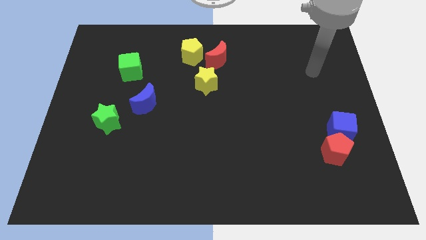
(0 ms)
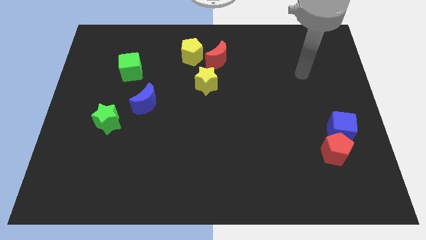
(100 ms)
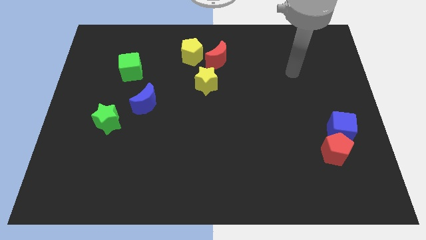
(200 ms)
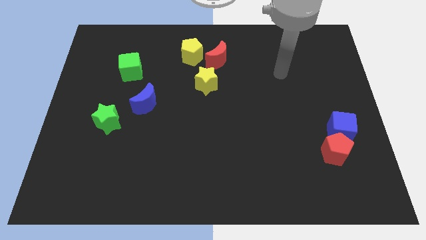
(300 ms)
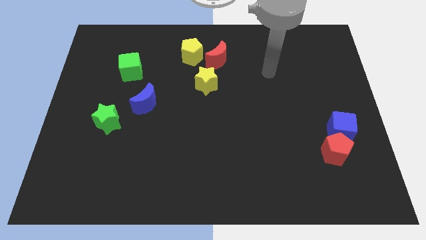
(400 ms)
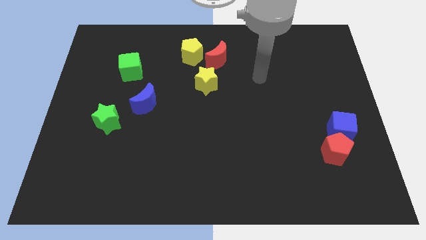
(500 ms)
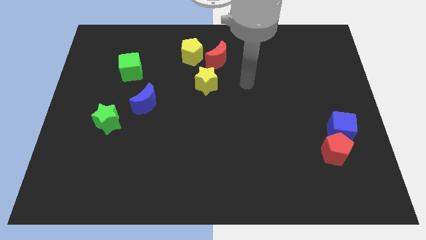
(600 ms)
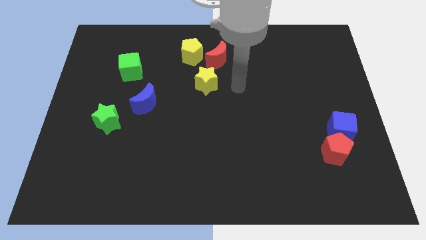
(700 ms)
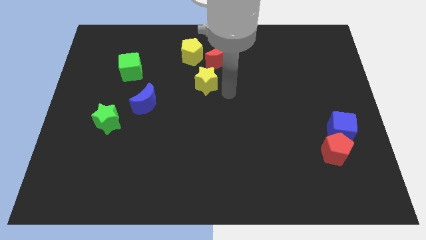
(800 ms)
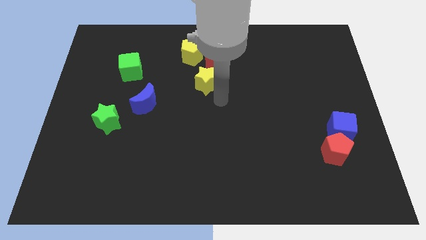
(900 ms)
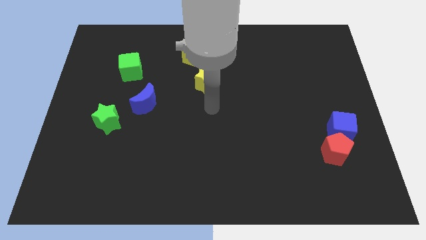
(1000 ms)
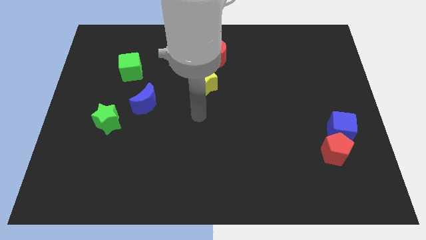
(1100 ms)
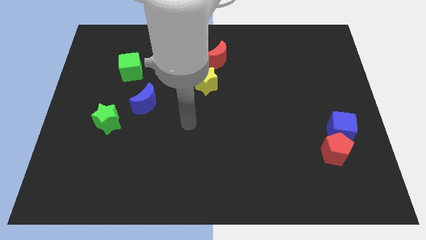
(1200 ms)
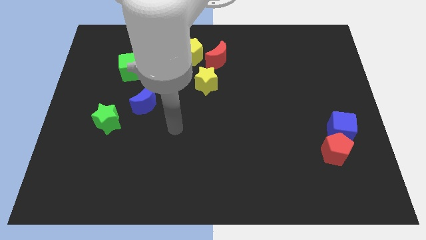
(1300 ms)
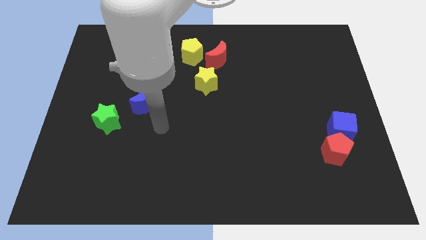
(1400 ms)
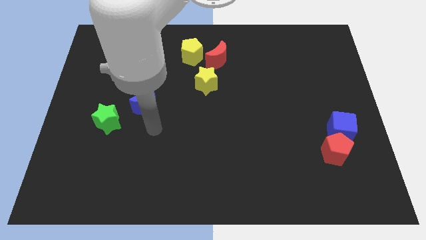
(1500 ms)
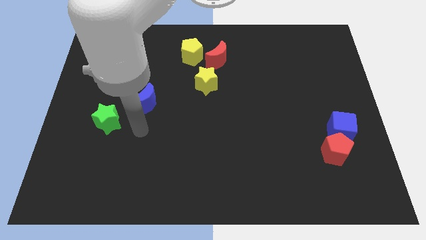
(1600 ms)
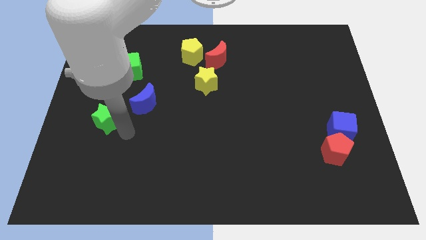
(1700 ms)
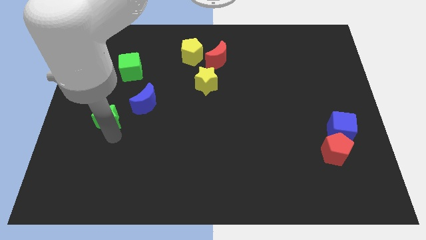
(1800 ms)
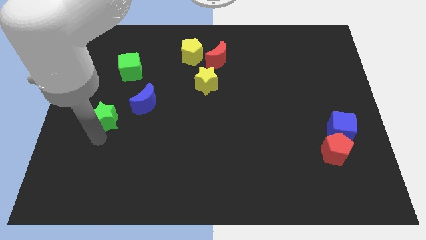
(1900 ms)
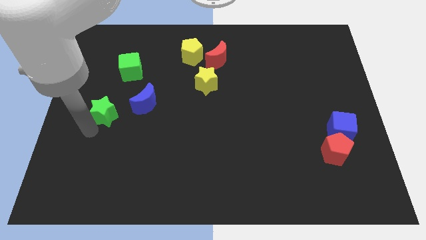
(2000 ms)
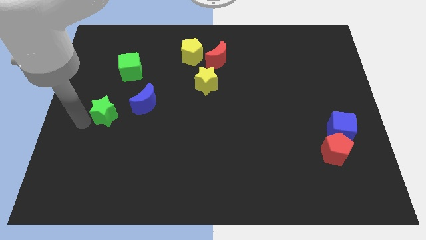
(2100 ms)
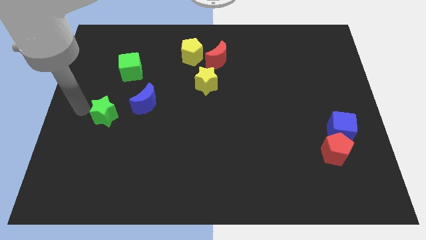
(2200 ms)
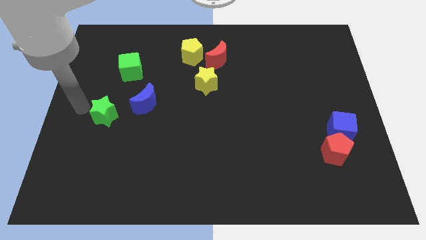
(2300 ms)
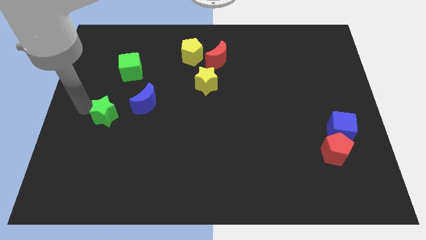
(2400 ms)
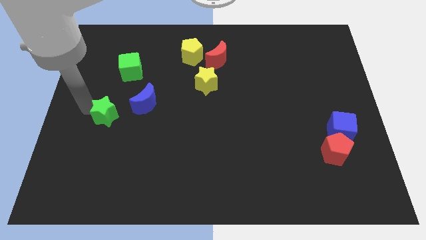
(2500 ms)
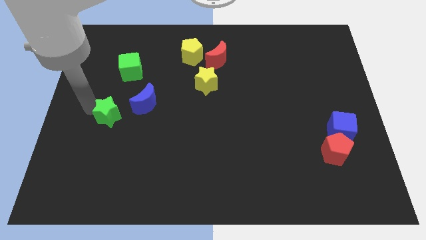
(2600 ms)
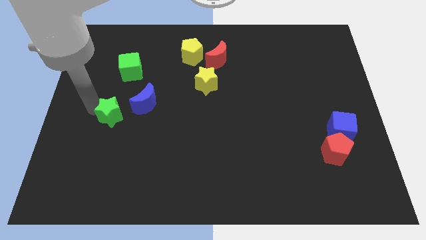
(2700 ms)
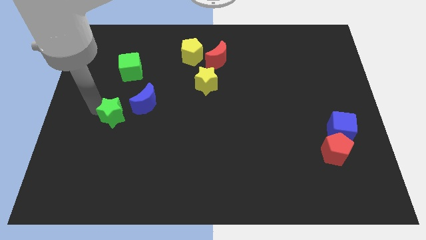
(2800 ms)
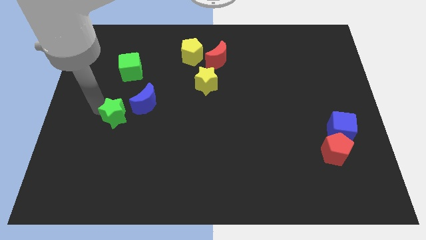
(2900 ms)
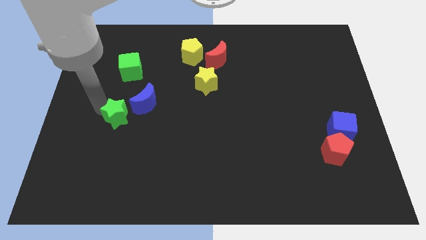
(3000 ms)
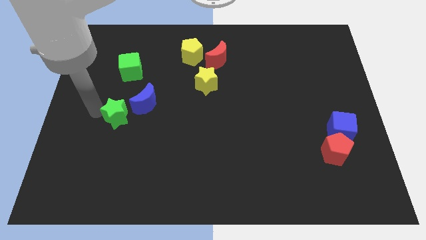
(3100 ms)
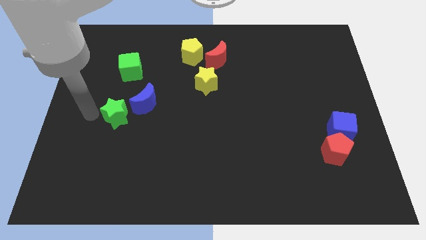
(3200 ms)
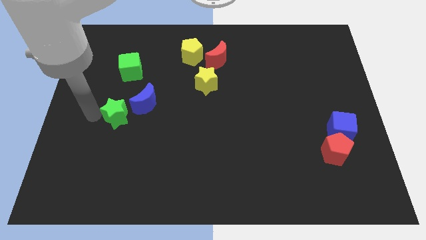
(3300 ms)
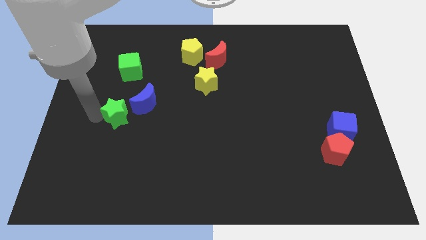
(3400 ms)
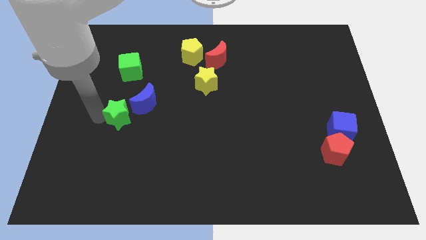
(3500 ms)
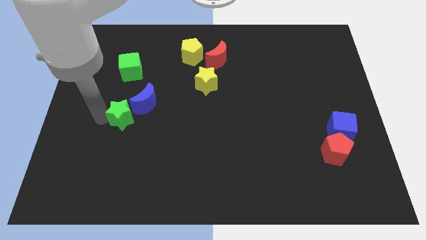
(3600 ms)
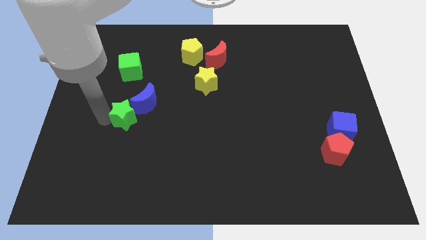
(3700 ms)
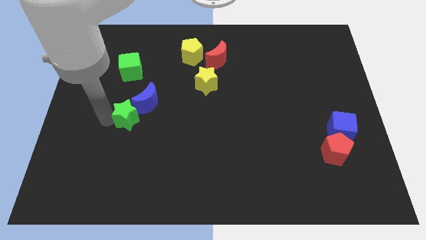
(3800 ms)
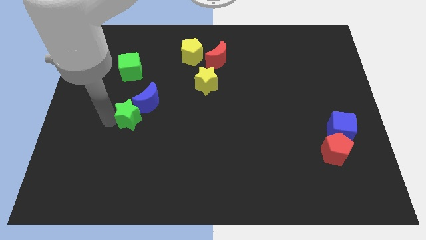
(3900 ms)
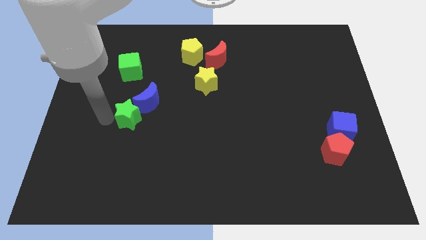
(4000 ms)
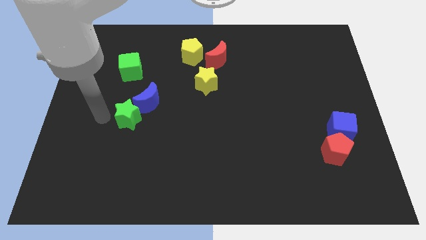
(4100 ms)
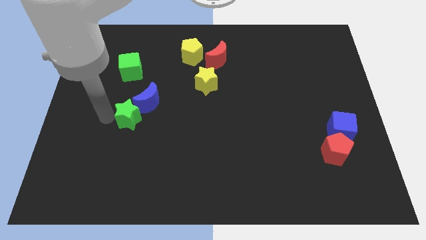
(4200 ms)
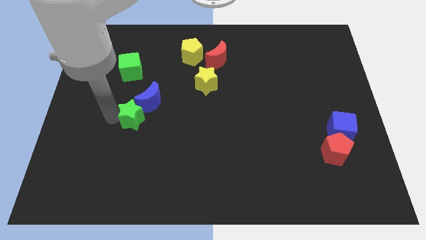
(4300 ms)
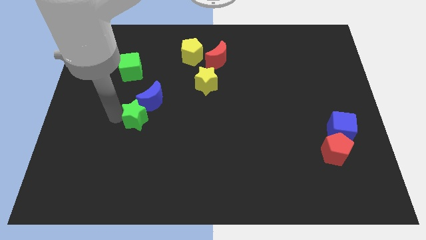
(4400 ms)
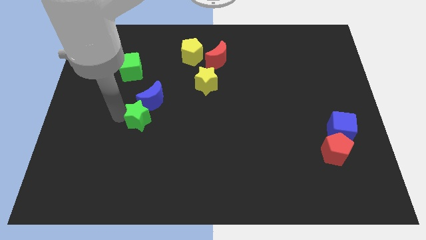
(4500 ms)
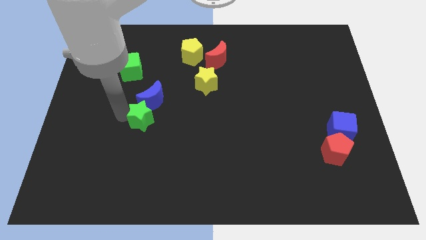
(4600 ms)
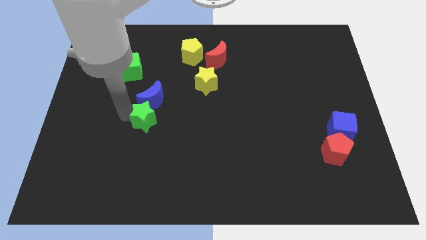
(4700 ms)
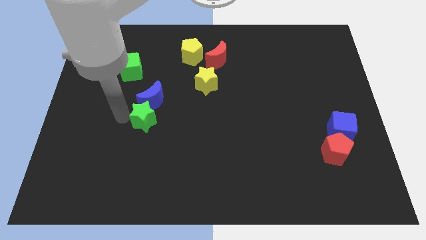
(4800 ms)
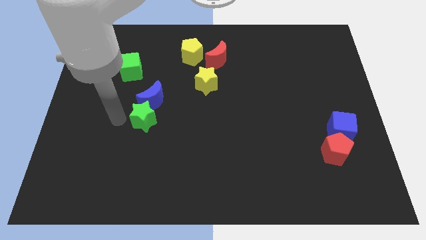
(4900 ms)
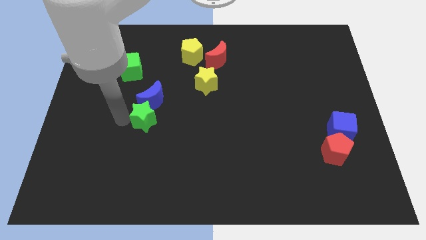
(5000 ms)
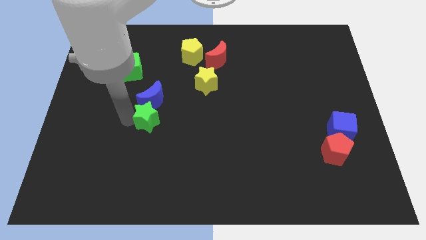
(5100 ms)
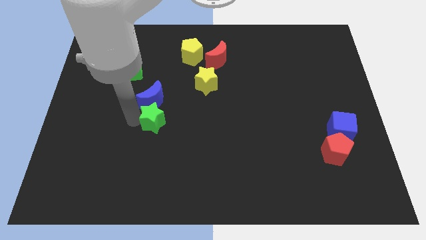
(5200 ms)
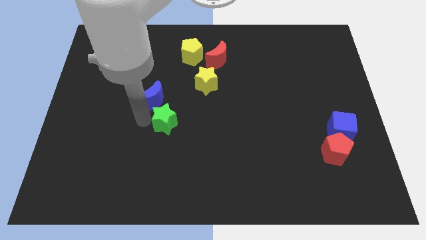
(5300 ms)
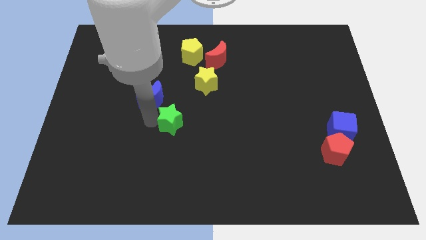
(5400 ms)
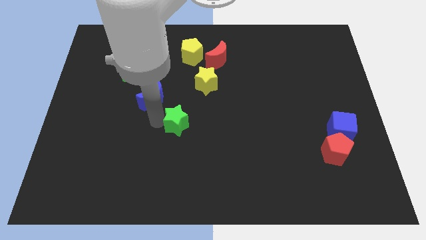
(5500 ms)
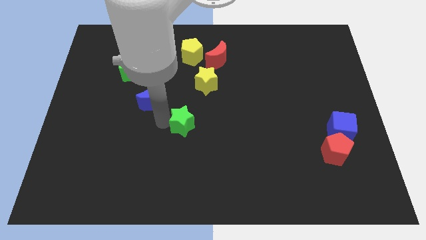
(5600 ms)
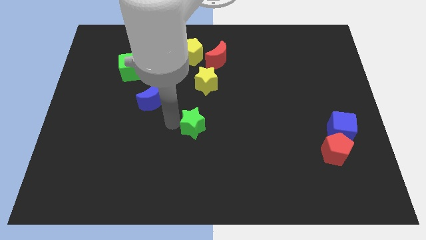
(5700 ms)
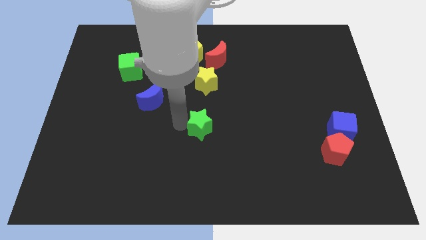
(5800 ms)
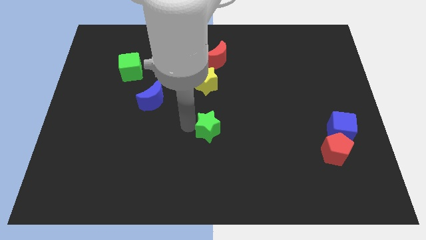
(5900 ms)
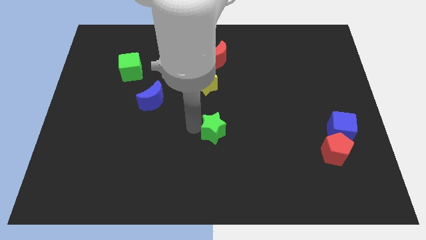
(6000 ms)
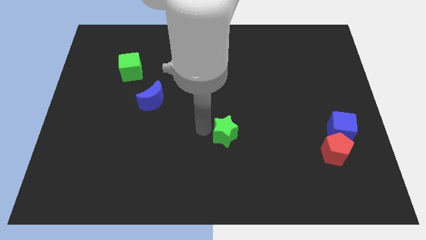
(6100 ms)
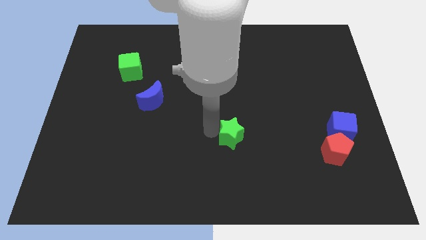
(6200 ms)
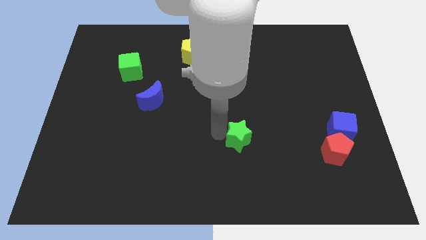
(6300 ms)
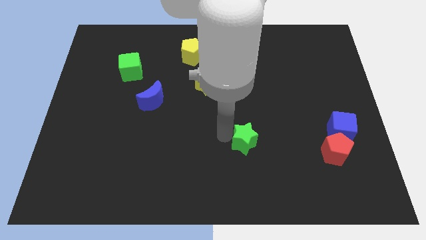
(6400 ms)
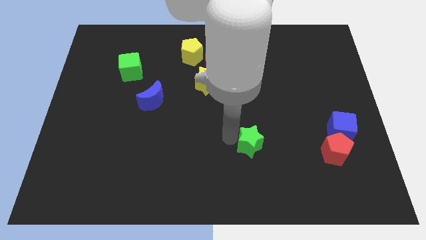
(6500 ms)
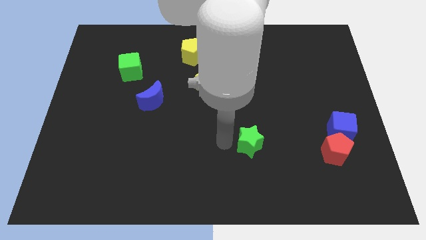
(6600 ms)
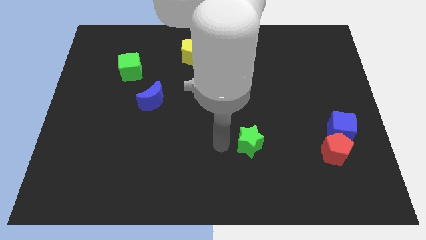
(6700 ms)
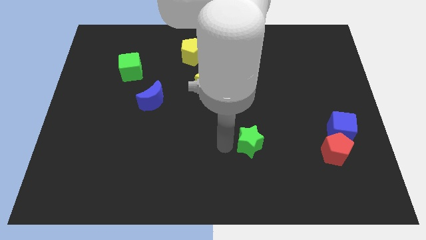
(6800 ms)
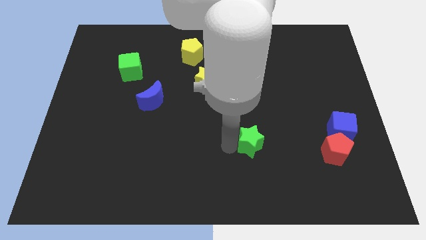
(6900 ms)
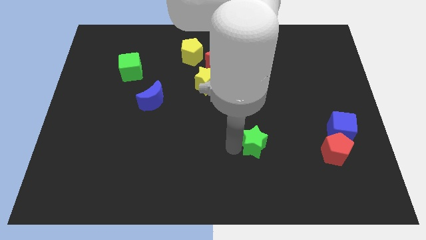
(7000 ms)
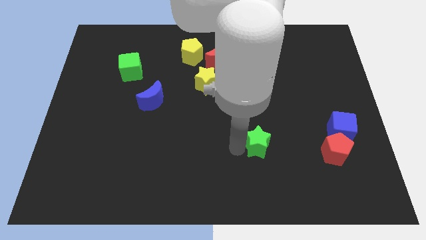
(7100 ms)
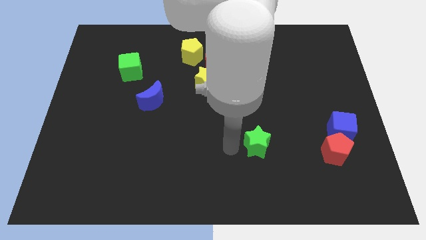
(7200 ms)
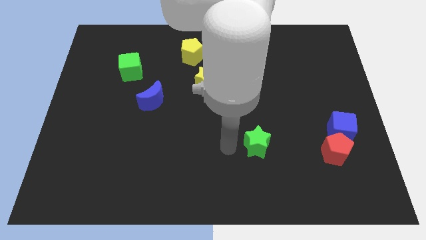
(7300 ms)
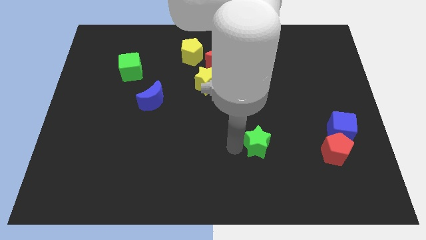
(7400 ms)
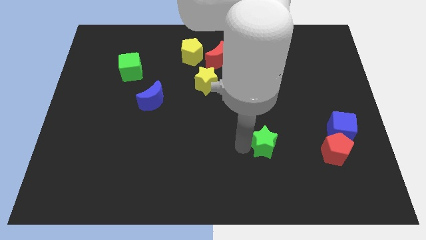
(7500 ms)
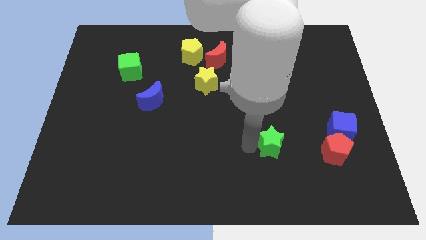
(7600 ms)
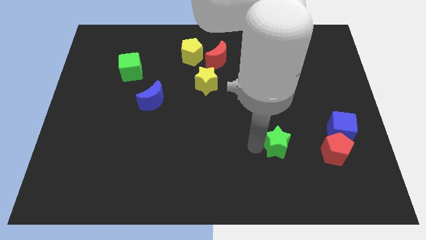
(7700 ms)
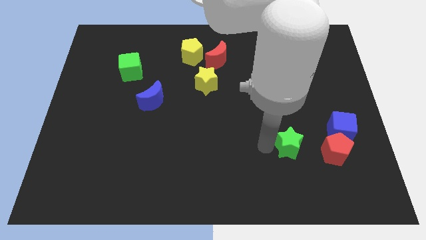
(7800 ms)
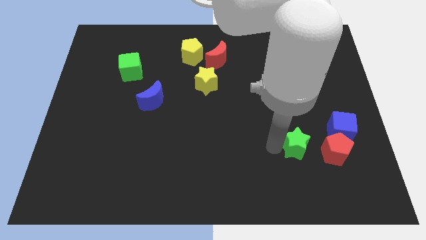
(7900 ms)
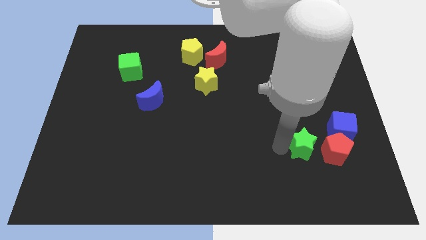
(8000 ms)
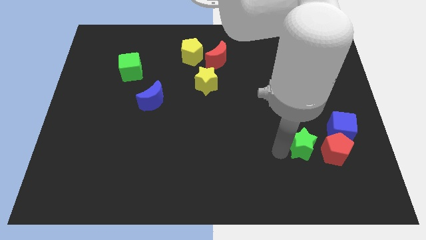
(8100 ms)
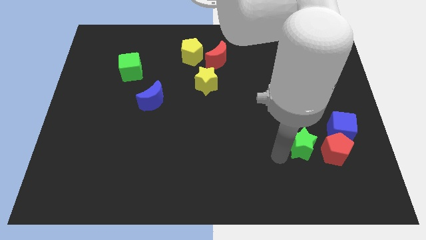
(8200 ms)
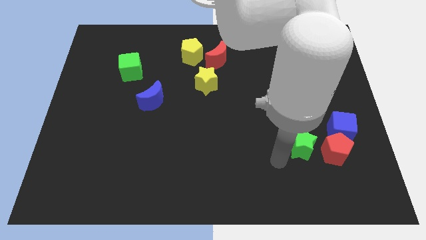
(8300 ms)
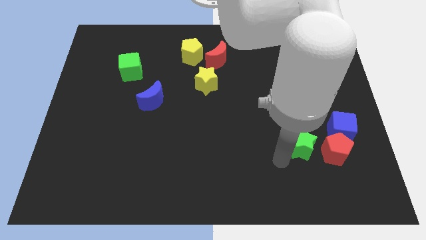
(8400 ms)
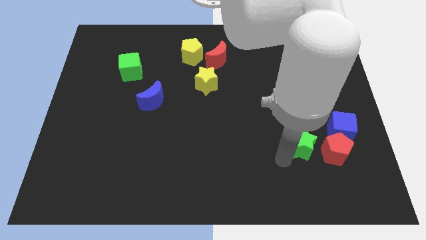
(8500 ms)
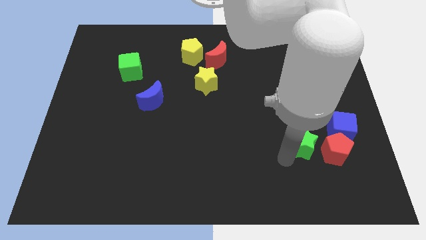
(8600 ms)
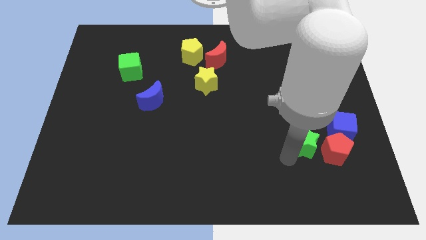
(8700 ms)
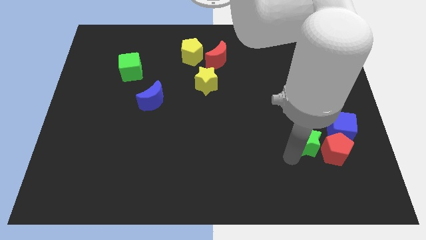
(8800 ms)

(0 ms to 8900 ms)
push the green star next to the red pentagon
